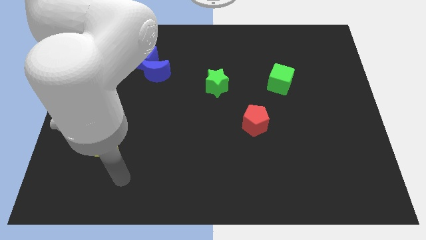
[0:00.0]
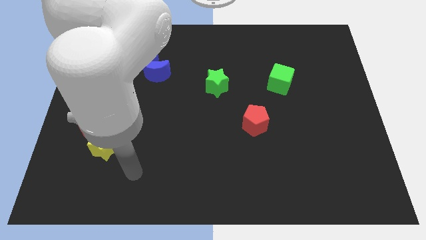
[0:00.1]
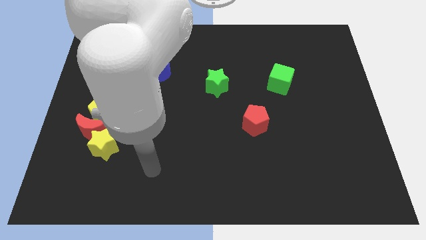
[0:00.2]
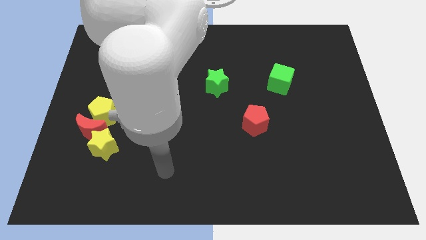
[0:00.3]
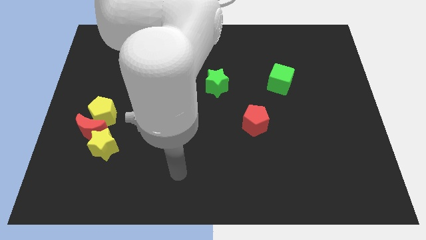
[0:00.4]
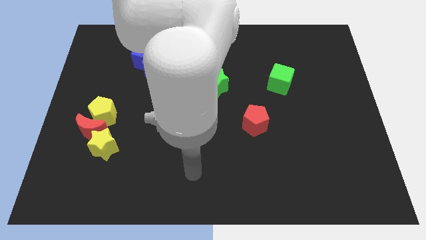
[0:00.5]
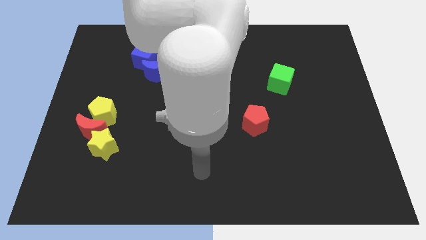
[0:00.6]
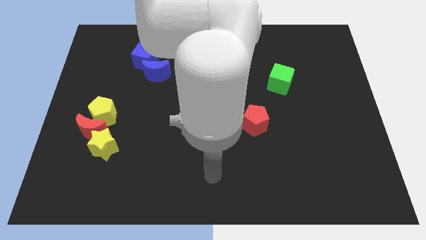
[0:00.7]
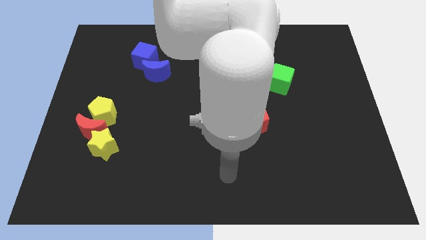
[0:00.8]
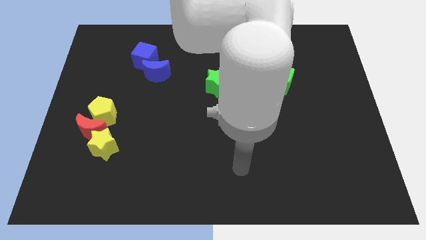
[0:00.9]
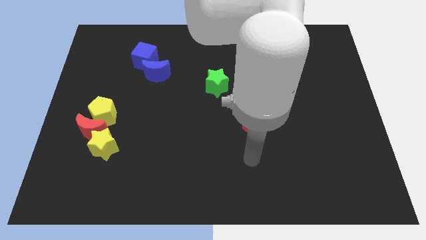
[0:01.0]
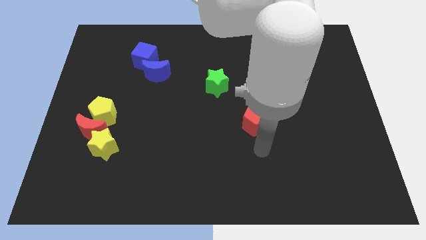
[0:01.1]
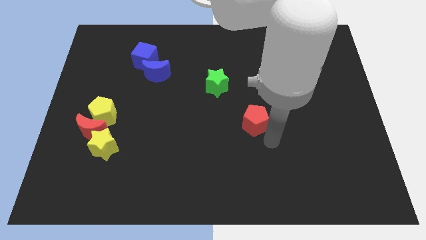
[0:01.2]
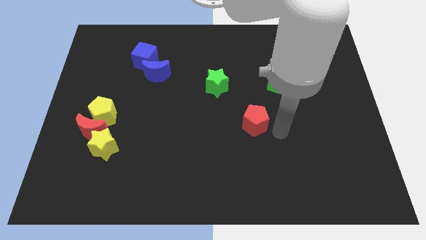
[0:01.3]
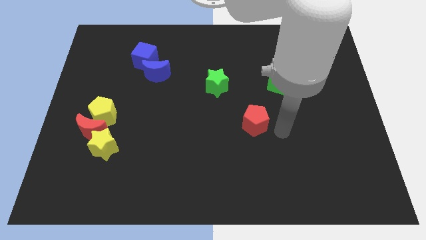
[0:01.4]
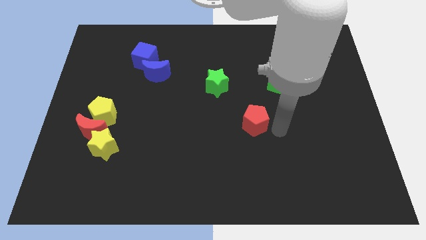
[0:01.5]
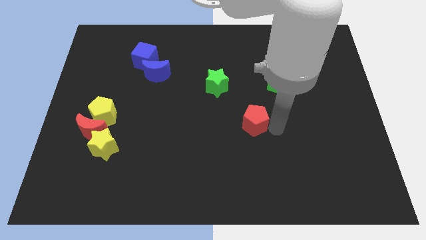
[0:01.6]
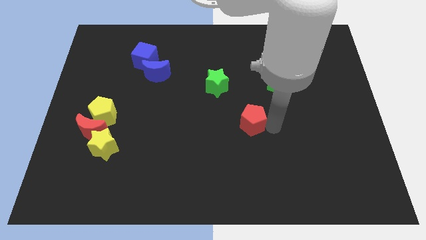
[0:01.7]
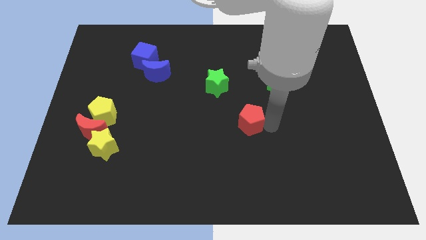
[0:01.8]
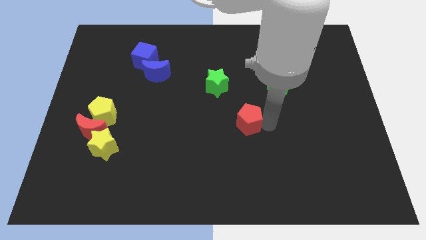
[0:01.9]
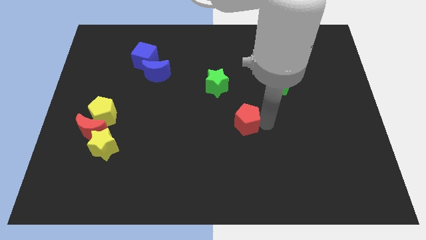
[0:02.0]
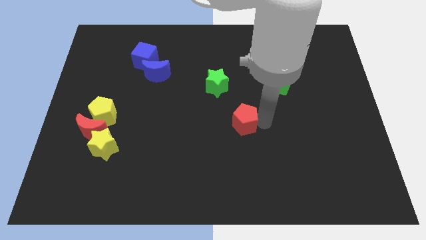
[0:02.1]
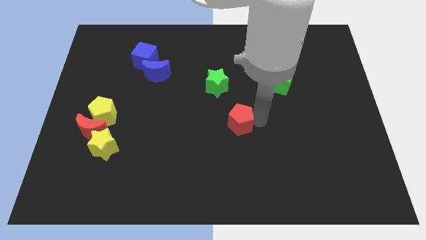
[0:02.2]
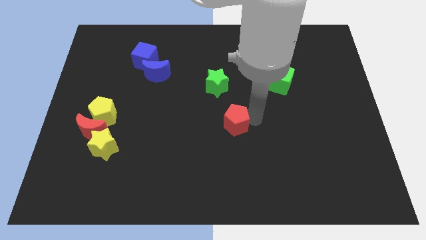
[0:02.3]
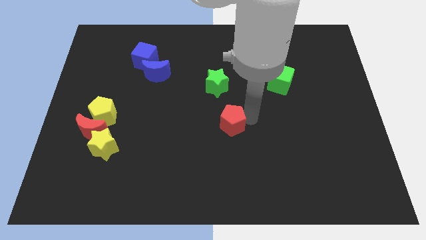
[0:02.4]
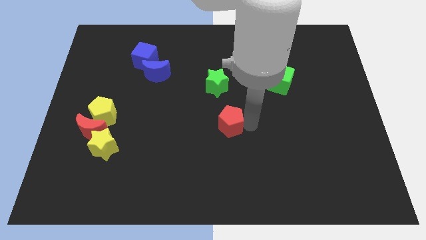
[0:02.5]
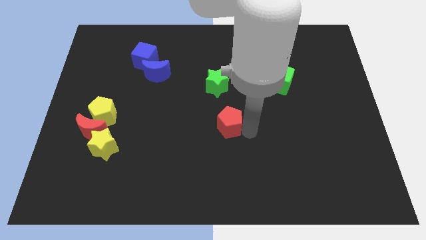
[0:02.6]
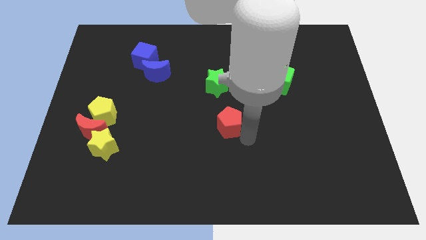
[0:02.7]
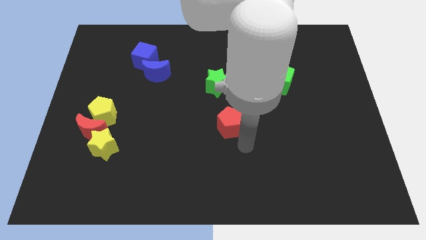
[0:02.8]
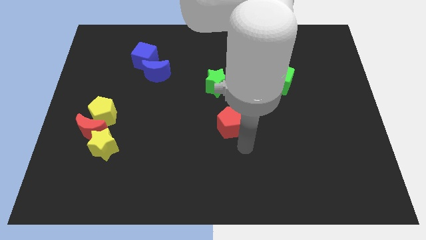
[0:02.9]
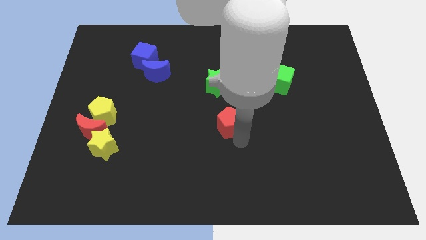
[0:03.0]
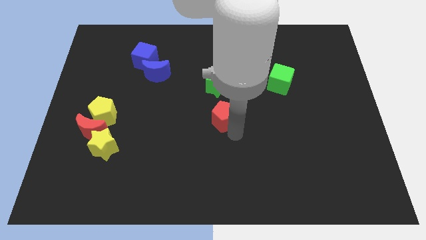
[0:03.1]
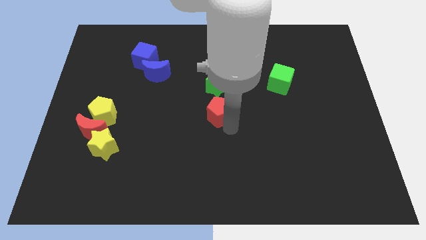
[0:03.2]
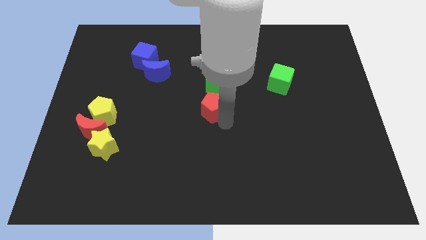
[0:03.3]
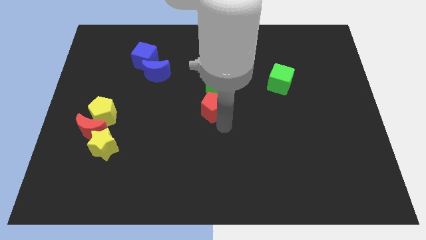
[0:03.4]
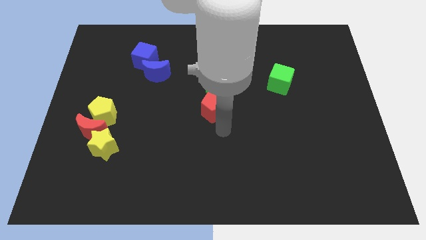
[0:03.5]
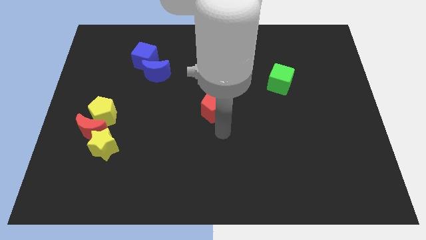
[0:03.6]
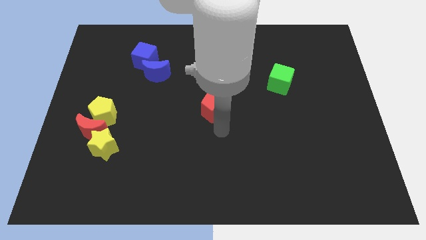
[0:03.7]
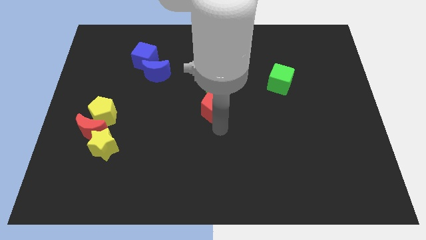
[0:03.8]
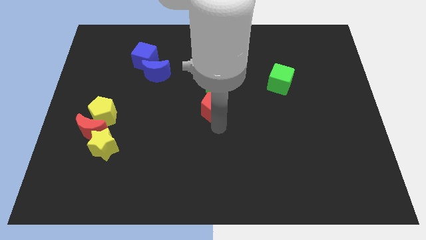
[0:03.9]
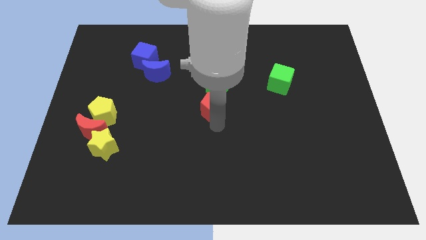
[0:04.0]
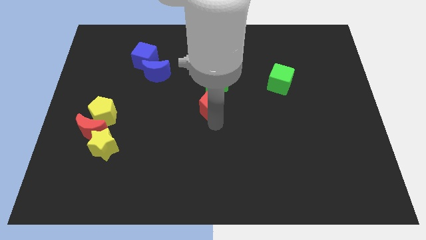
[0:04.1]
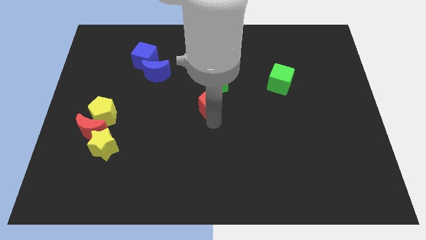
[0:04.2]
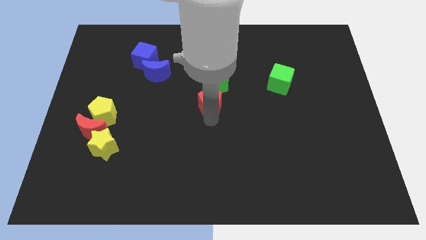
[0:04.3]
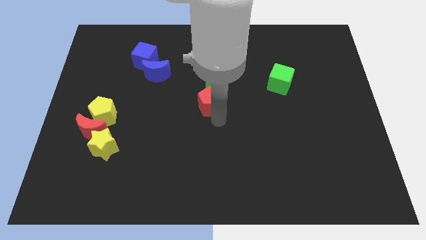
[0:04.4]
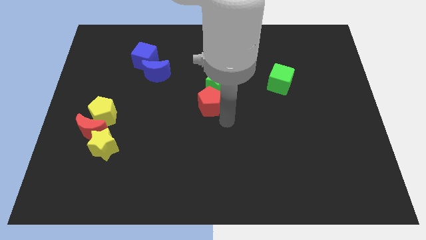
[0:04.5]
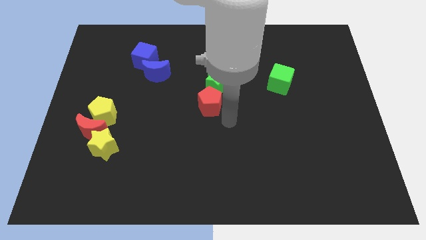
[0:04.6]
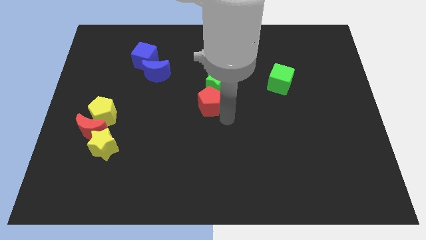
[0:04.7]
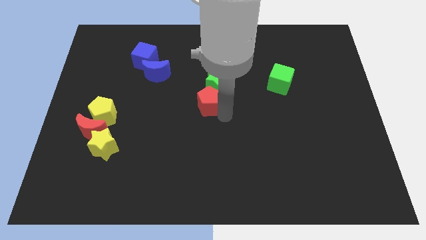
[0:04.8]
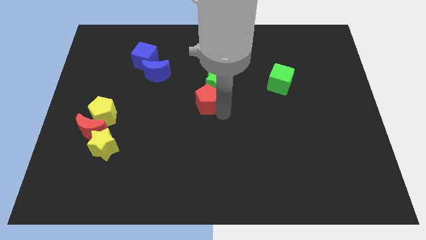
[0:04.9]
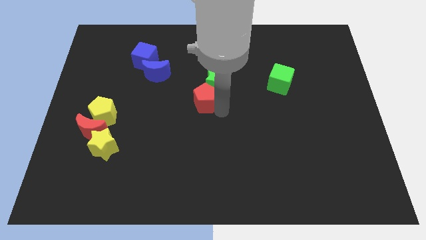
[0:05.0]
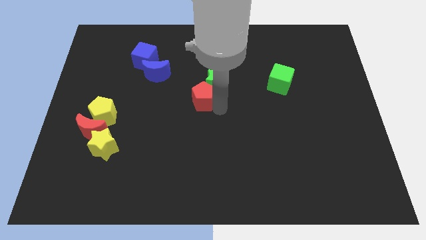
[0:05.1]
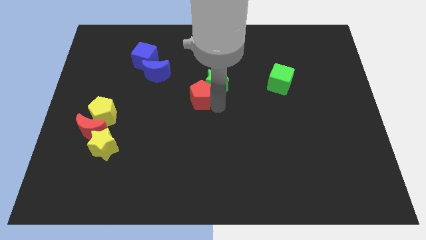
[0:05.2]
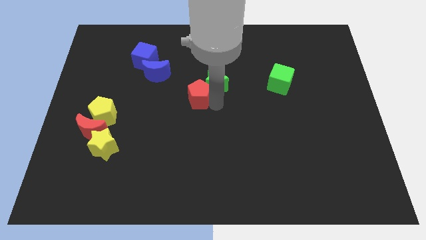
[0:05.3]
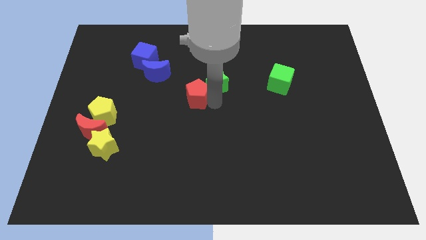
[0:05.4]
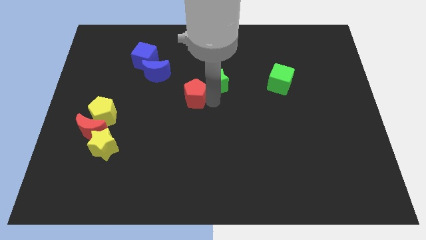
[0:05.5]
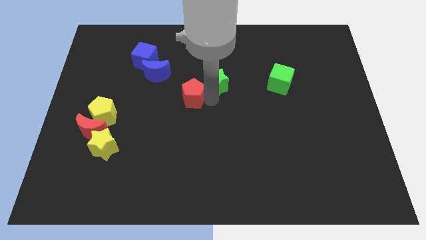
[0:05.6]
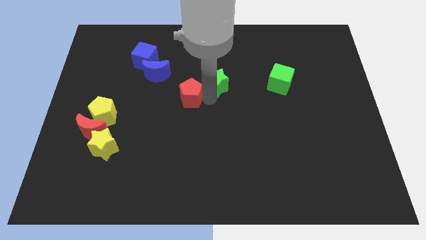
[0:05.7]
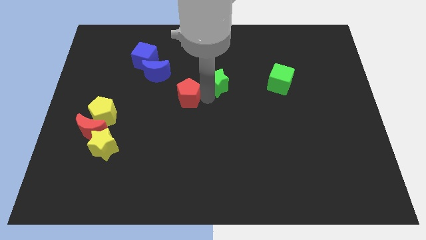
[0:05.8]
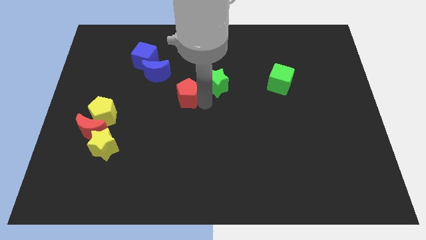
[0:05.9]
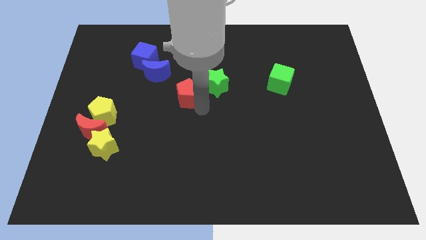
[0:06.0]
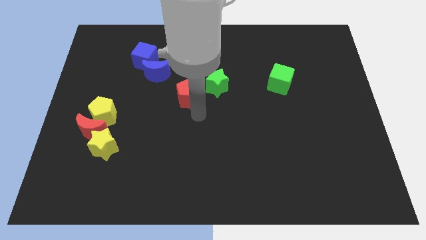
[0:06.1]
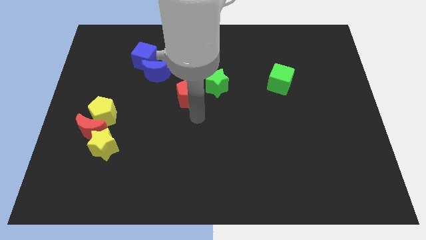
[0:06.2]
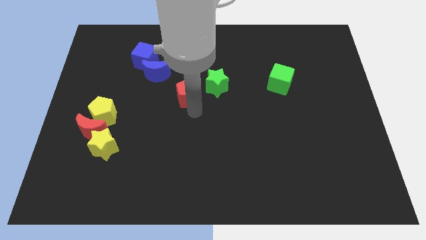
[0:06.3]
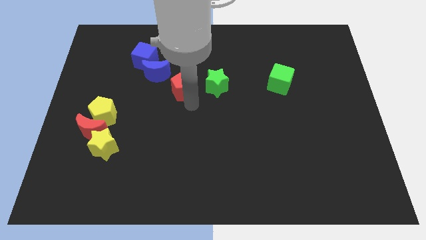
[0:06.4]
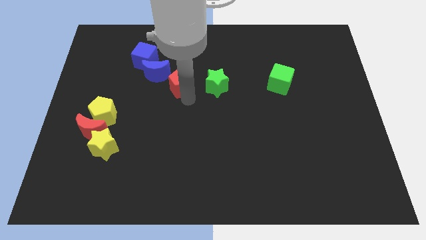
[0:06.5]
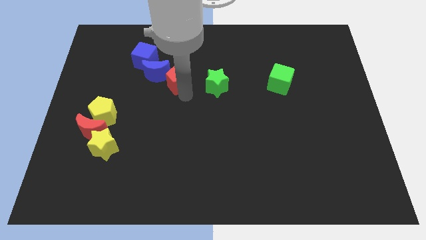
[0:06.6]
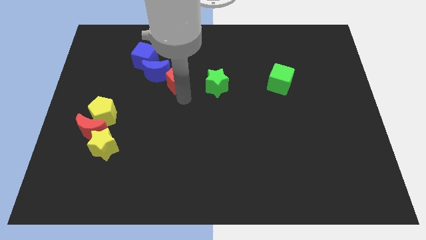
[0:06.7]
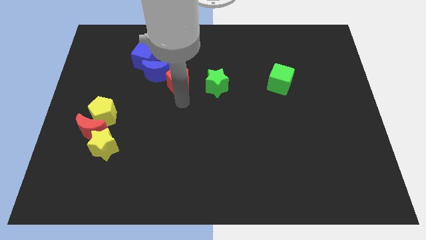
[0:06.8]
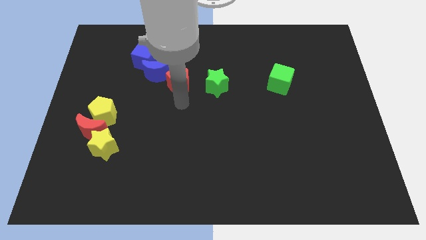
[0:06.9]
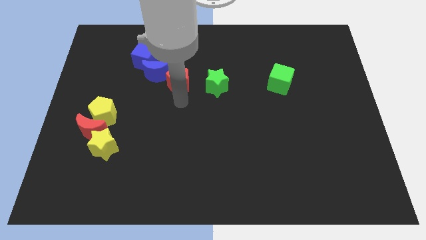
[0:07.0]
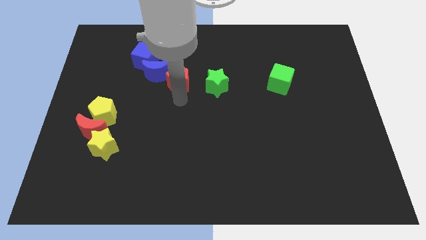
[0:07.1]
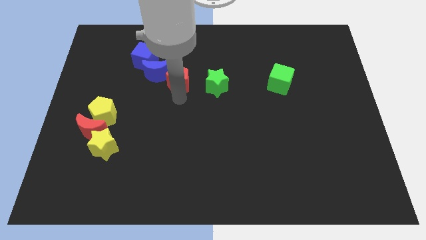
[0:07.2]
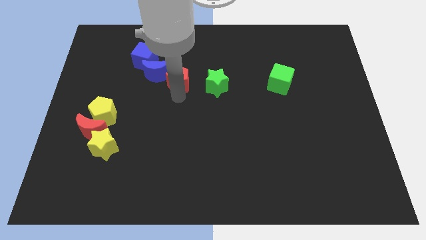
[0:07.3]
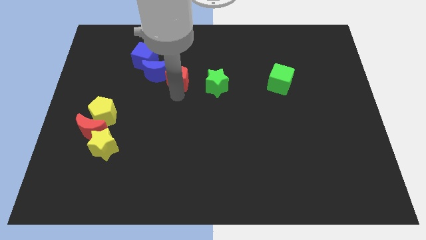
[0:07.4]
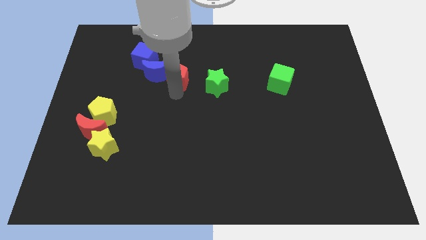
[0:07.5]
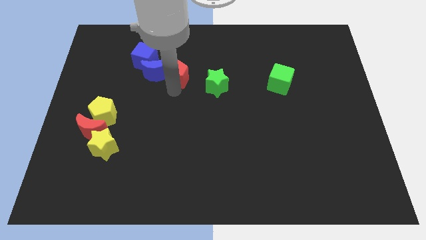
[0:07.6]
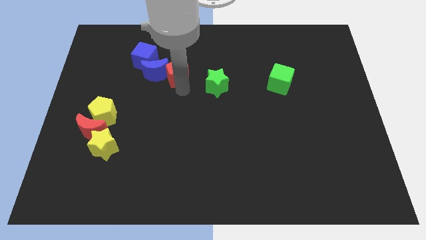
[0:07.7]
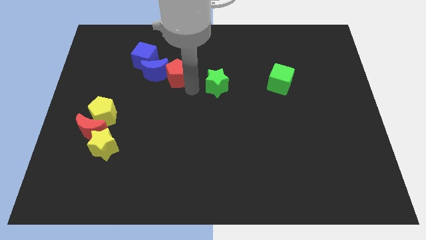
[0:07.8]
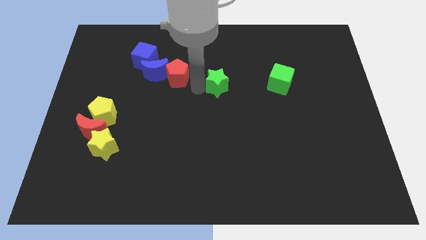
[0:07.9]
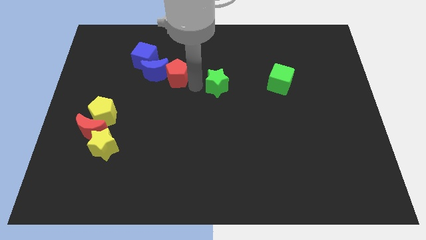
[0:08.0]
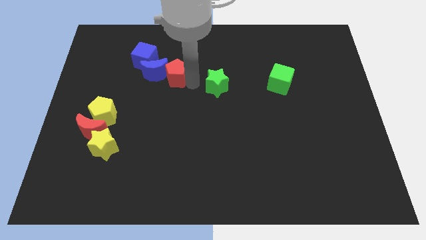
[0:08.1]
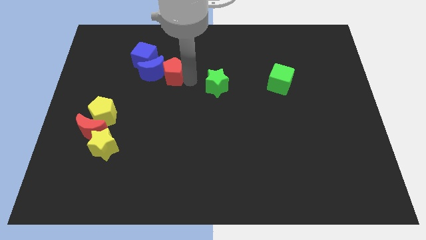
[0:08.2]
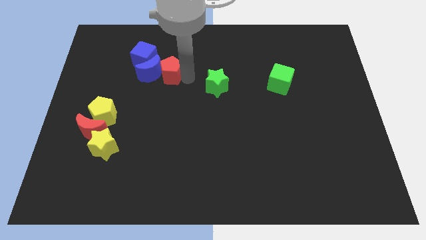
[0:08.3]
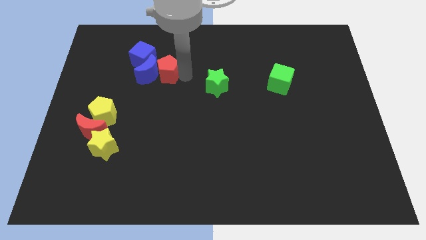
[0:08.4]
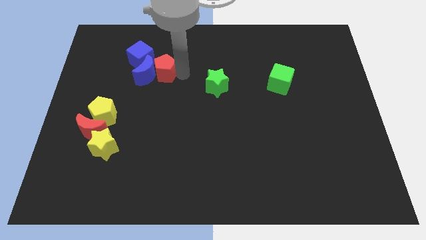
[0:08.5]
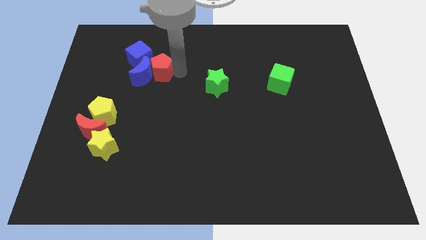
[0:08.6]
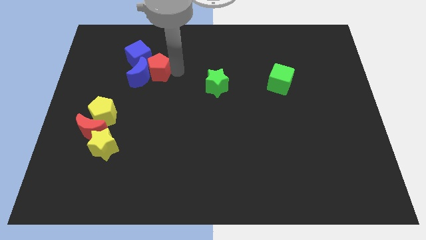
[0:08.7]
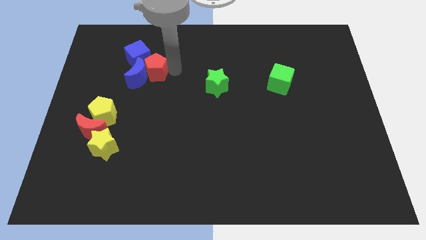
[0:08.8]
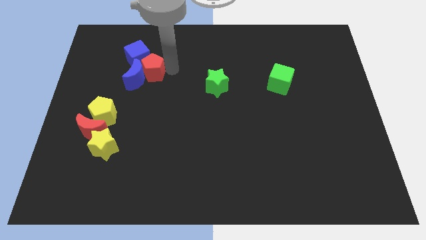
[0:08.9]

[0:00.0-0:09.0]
slide the red pentagon to the blue cube
